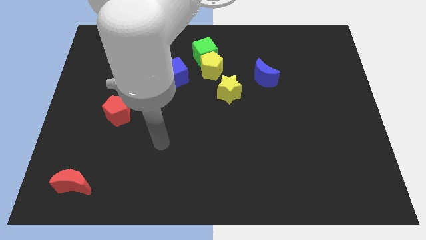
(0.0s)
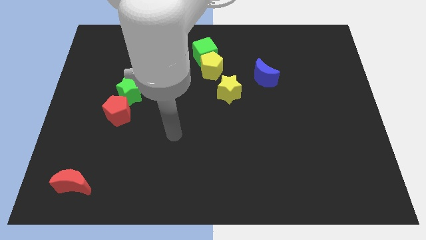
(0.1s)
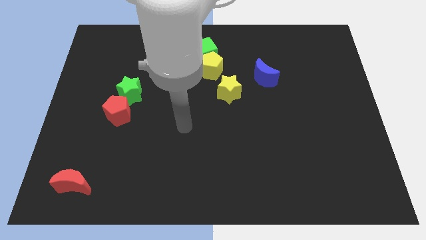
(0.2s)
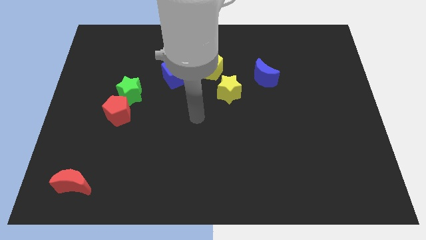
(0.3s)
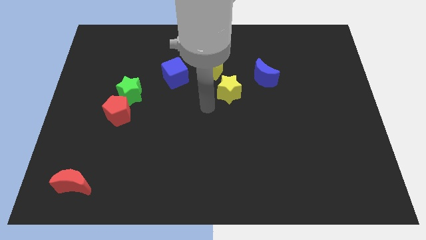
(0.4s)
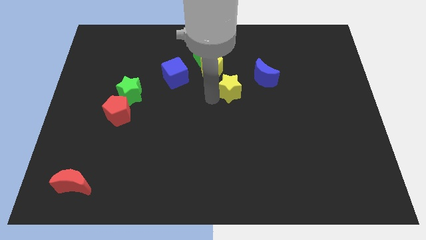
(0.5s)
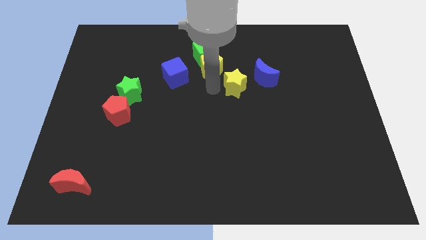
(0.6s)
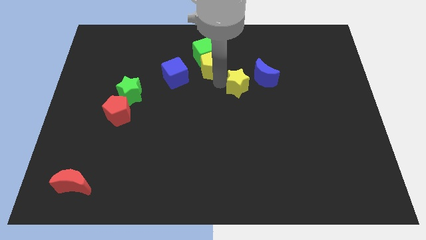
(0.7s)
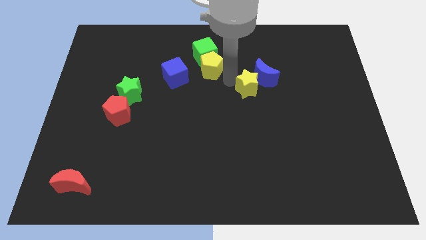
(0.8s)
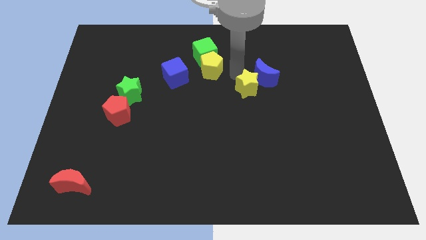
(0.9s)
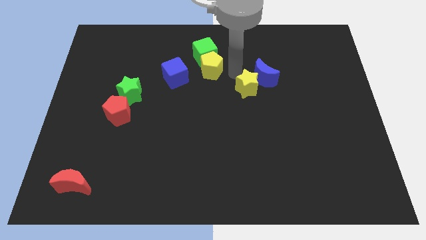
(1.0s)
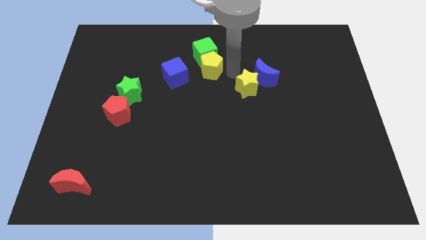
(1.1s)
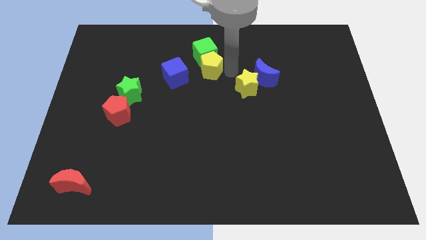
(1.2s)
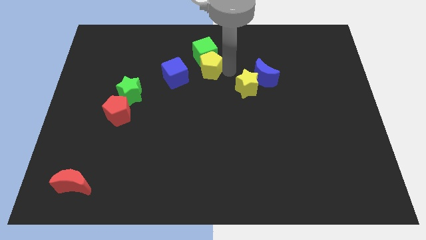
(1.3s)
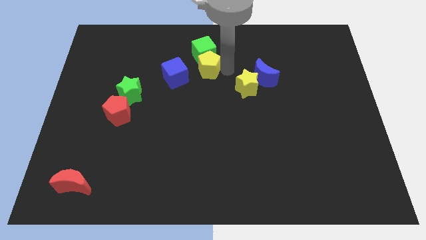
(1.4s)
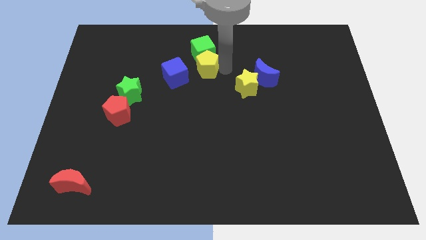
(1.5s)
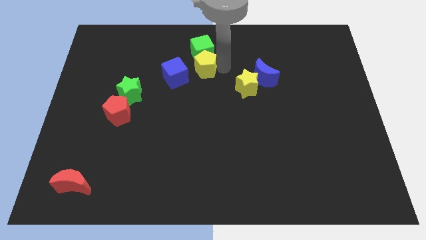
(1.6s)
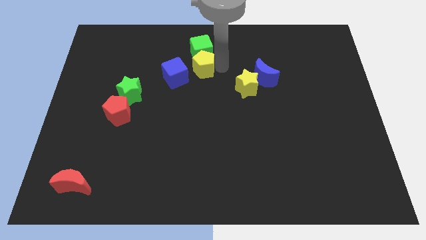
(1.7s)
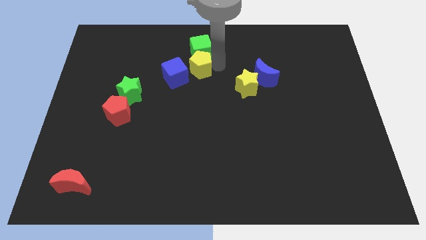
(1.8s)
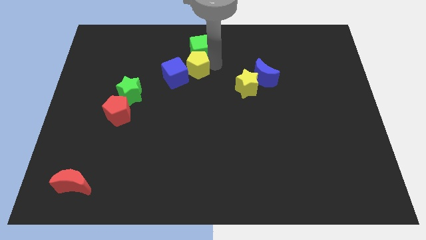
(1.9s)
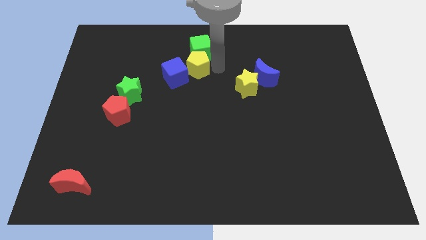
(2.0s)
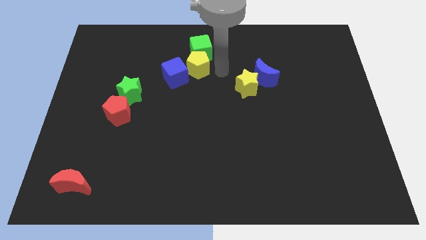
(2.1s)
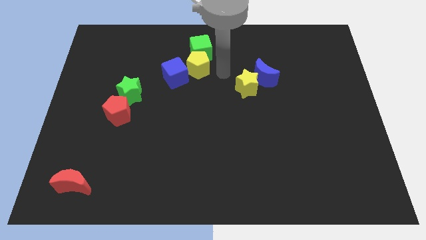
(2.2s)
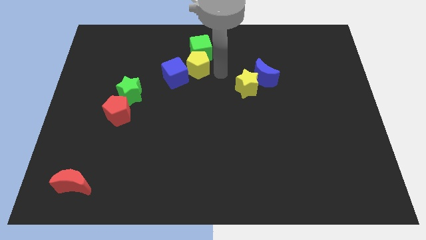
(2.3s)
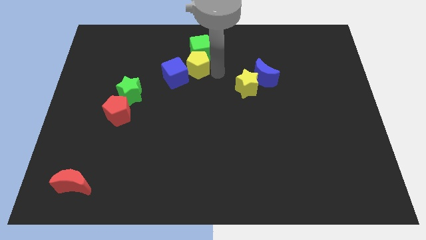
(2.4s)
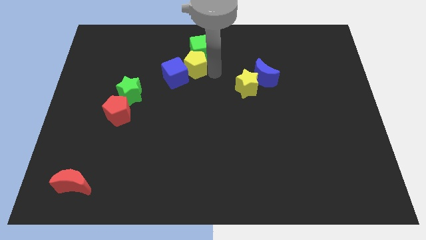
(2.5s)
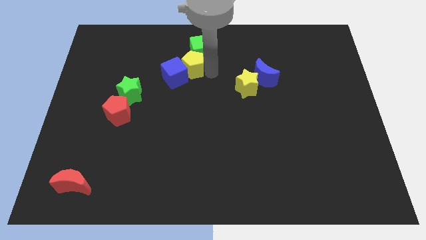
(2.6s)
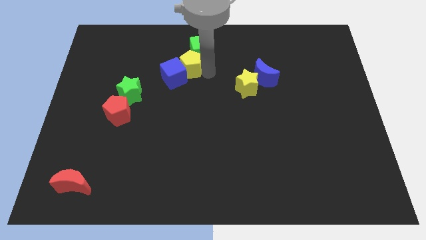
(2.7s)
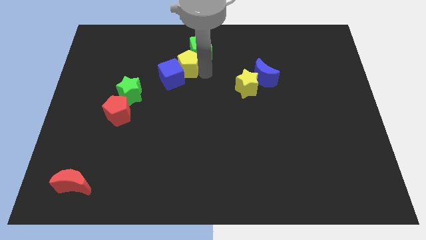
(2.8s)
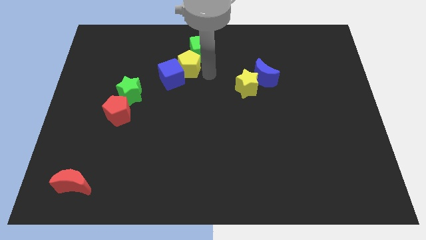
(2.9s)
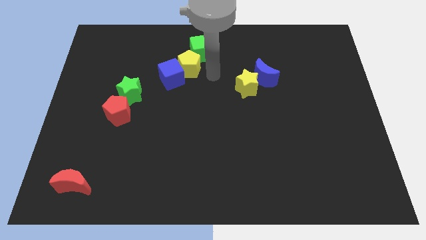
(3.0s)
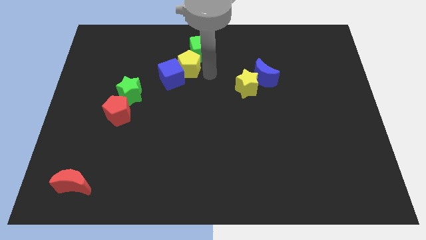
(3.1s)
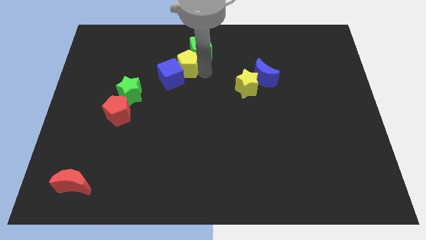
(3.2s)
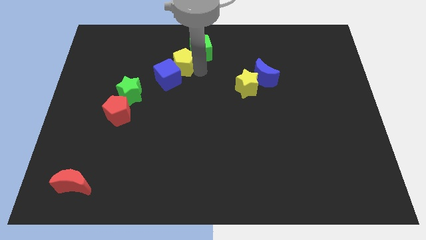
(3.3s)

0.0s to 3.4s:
move the yellow pentagon to the left a little bit

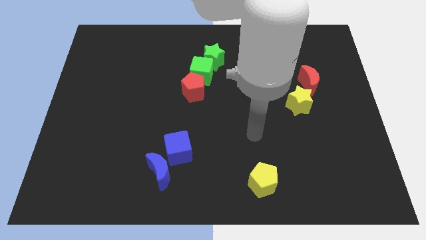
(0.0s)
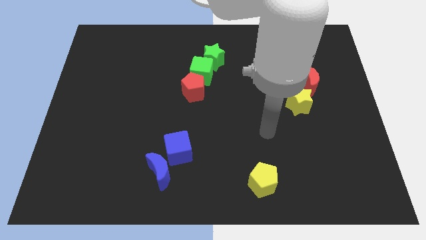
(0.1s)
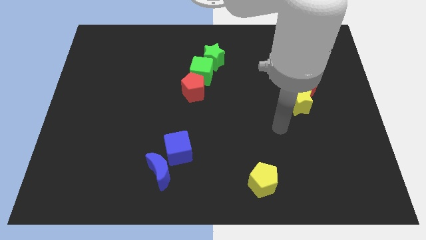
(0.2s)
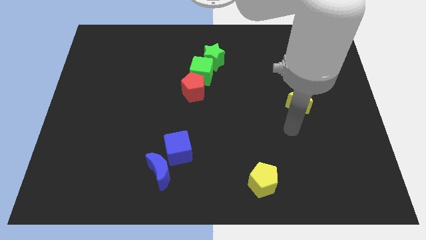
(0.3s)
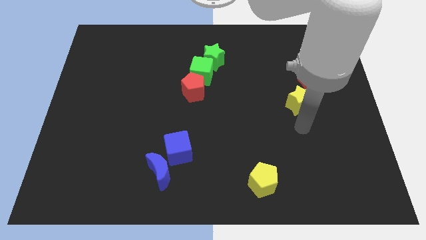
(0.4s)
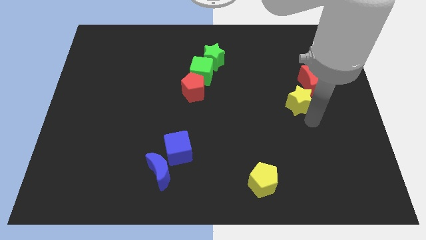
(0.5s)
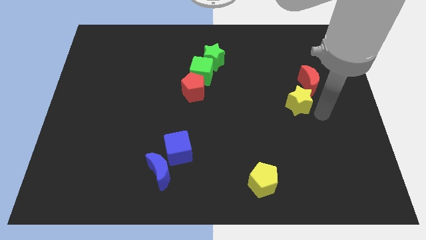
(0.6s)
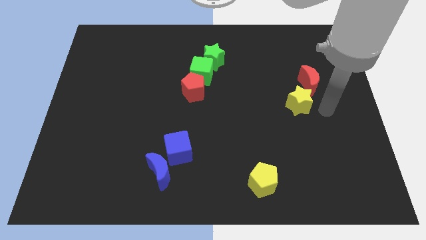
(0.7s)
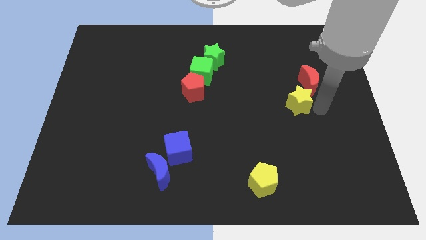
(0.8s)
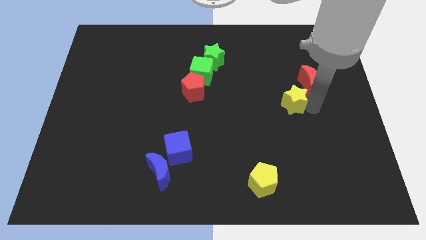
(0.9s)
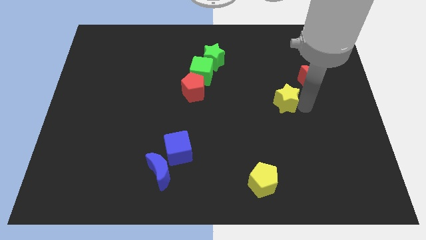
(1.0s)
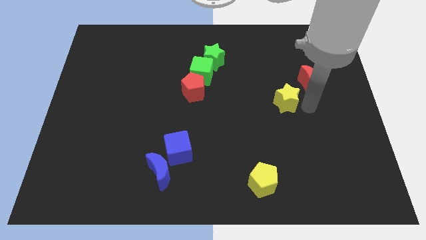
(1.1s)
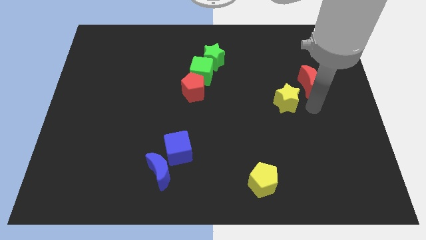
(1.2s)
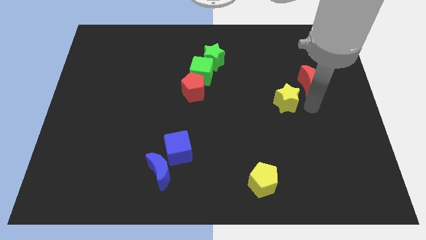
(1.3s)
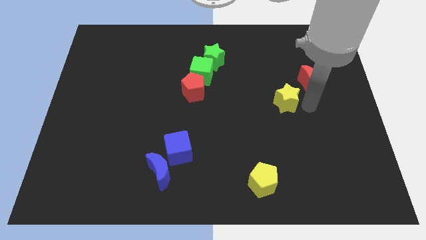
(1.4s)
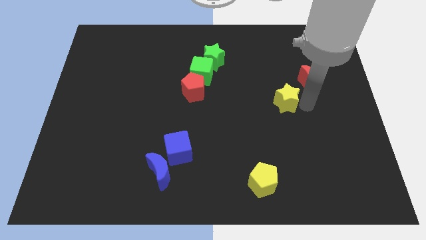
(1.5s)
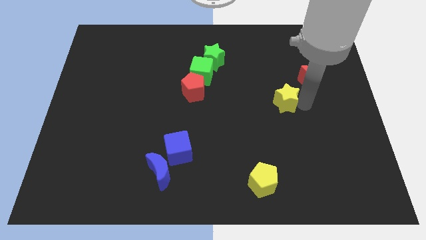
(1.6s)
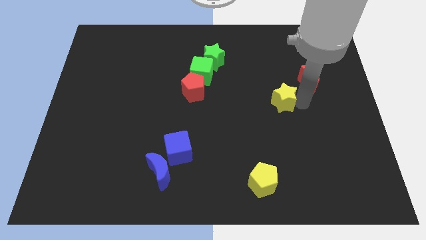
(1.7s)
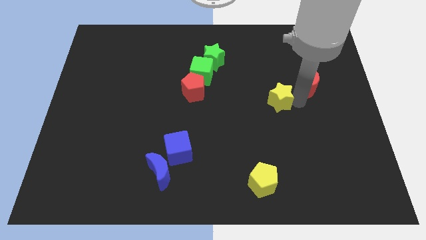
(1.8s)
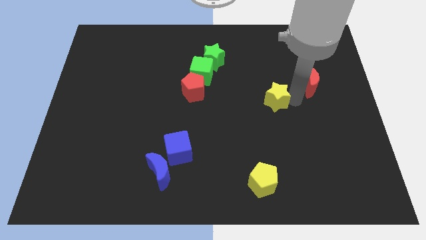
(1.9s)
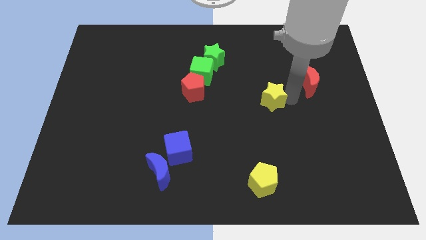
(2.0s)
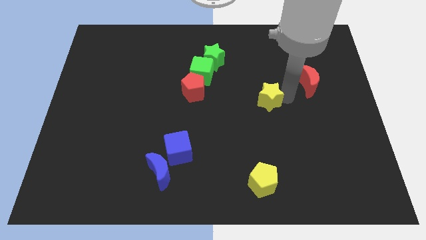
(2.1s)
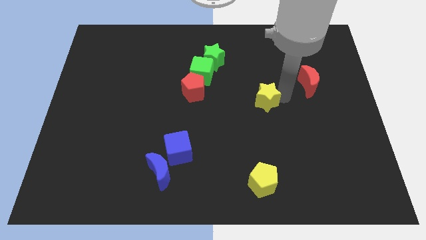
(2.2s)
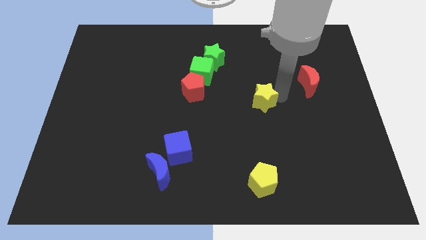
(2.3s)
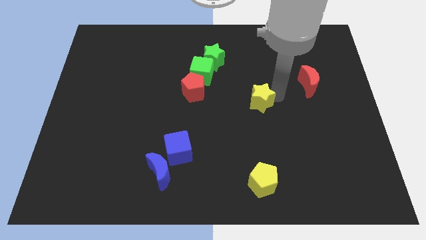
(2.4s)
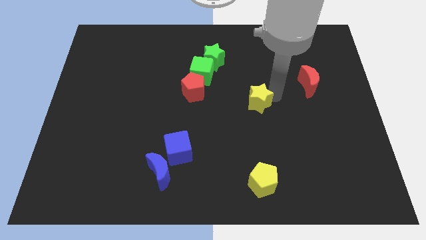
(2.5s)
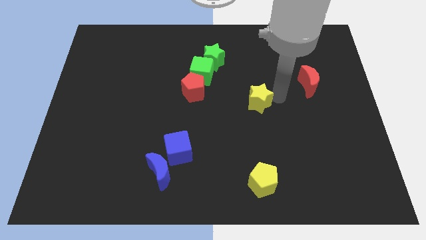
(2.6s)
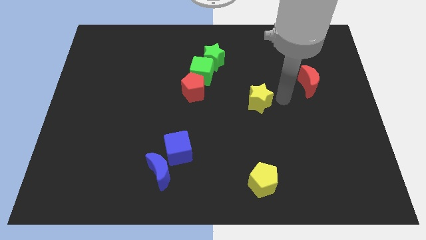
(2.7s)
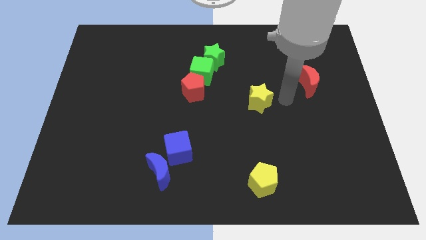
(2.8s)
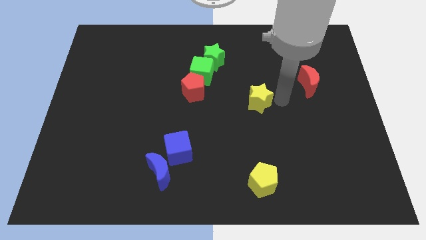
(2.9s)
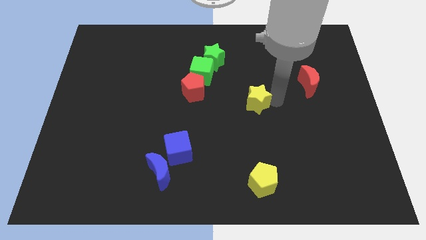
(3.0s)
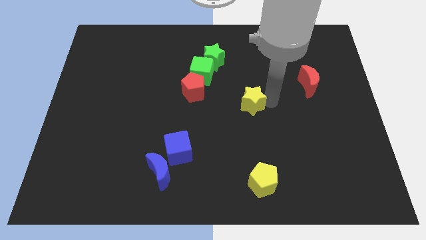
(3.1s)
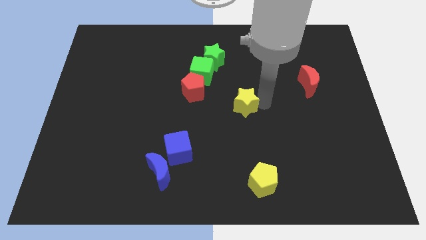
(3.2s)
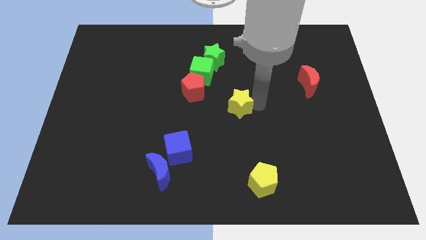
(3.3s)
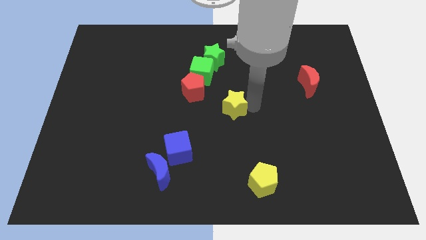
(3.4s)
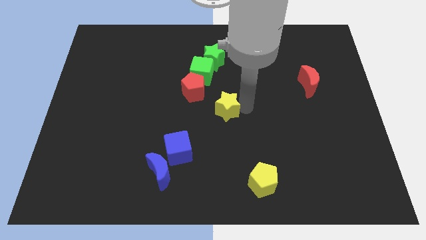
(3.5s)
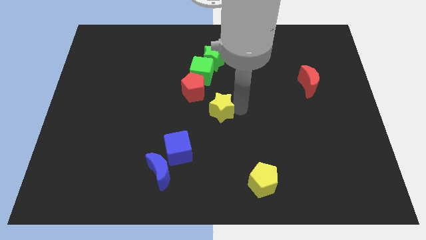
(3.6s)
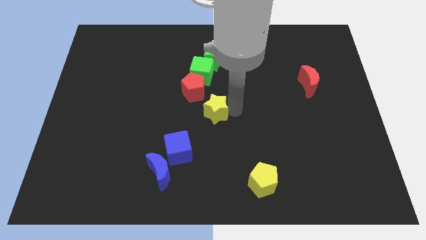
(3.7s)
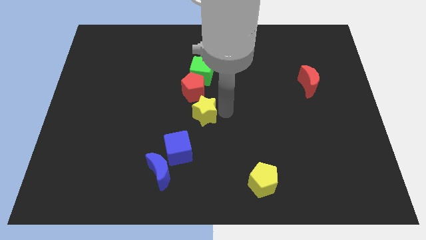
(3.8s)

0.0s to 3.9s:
push the yellow star to the left

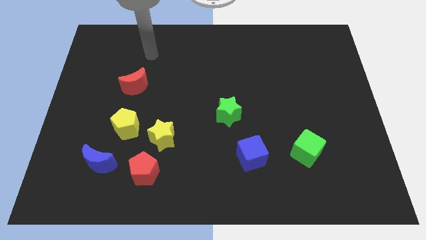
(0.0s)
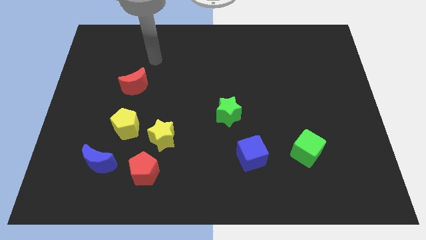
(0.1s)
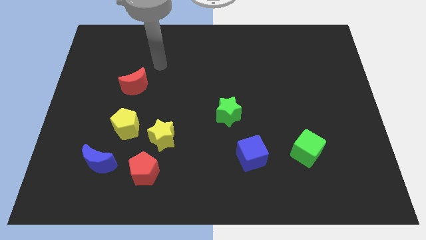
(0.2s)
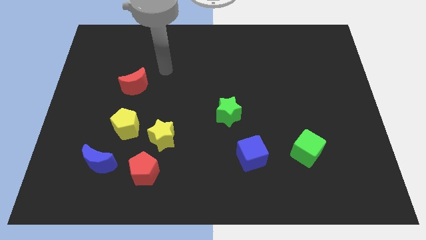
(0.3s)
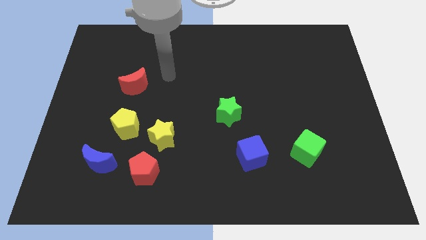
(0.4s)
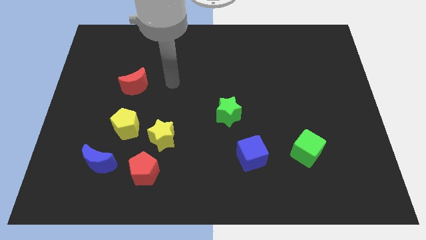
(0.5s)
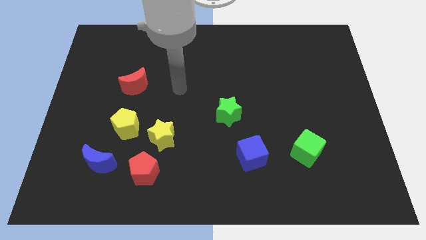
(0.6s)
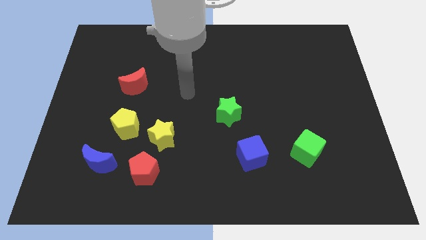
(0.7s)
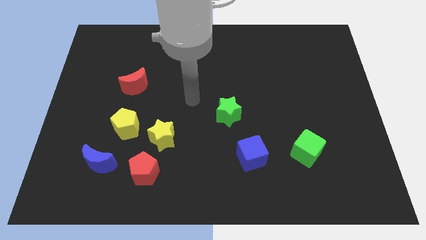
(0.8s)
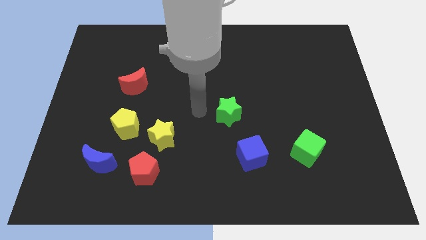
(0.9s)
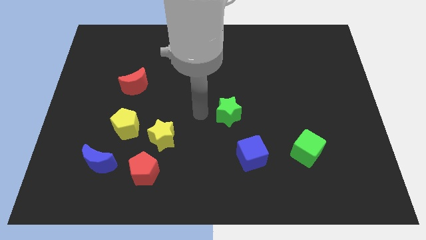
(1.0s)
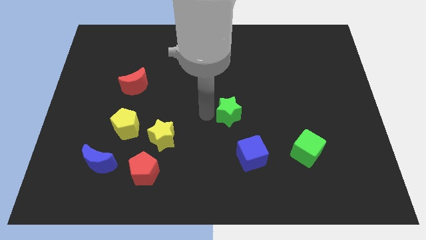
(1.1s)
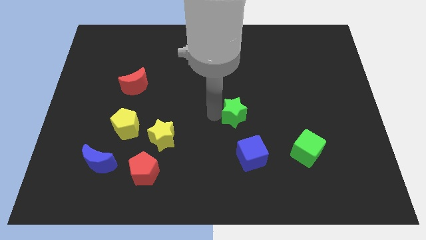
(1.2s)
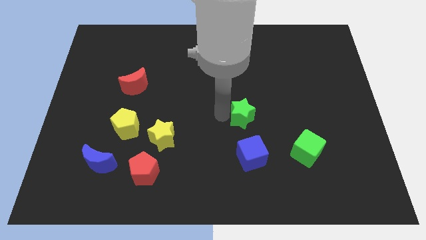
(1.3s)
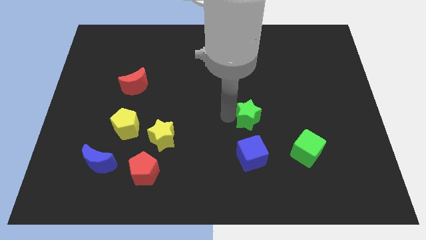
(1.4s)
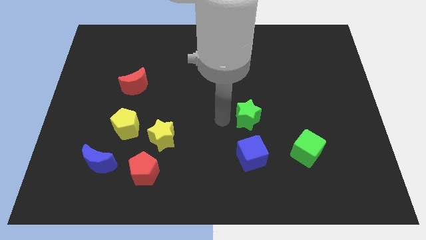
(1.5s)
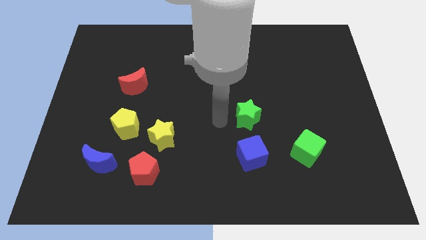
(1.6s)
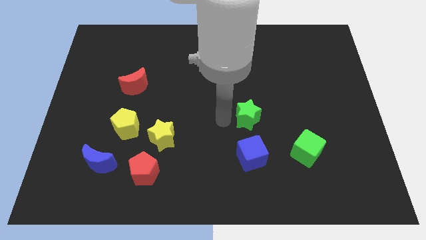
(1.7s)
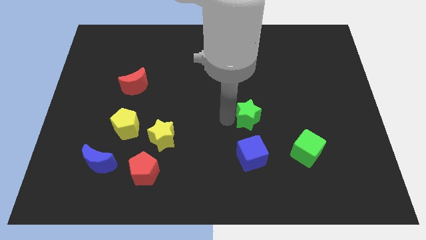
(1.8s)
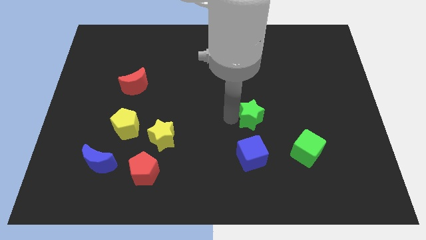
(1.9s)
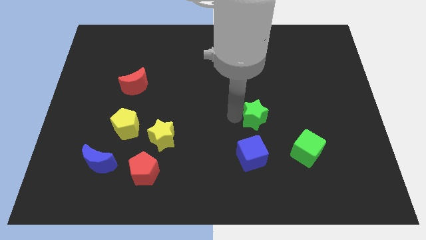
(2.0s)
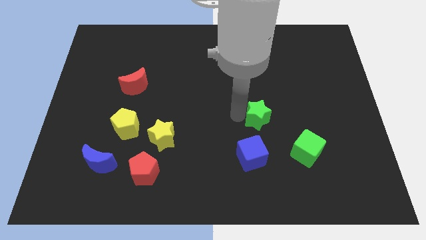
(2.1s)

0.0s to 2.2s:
push the green star right a little
